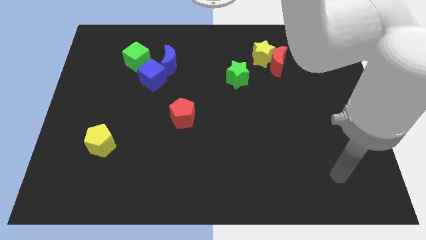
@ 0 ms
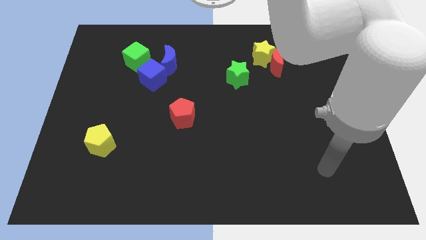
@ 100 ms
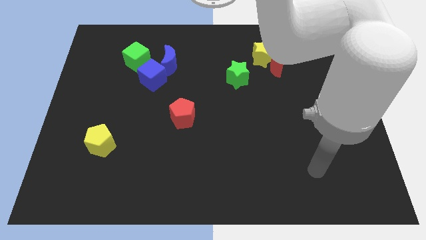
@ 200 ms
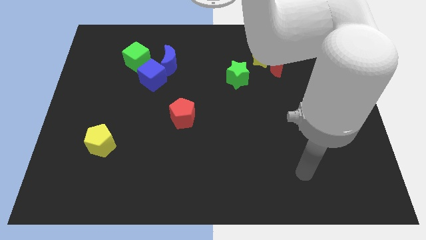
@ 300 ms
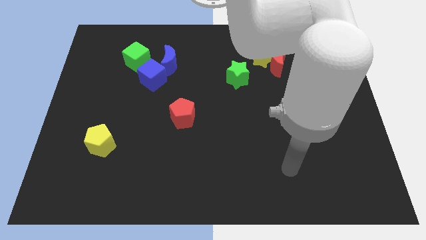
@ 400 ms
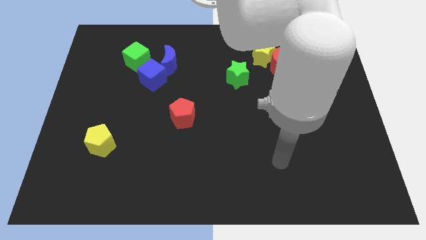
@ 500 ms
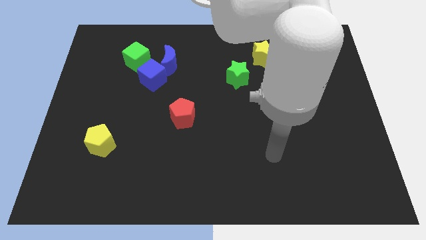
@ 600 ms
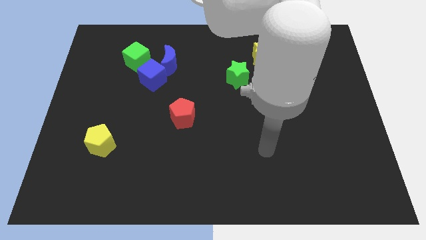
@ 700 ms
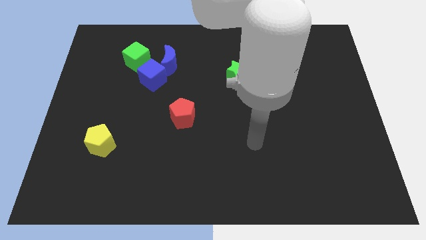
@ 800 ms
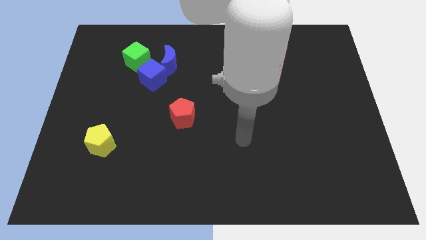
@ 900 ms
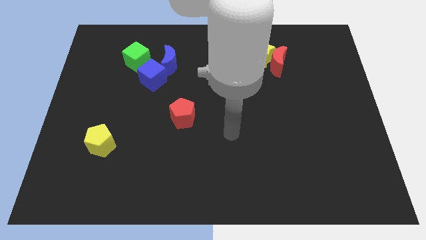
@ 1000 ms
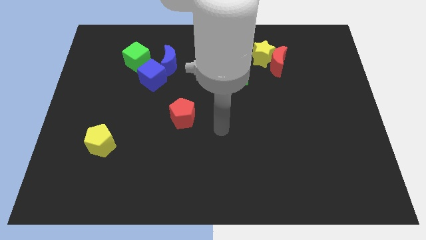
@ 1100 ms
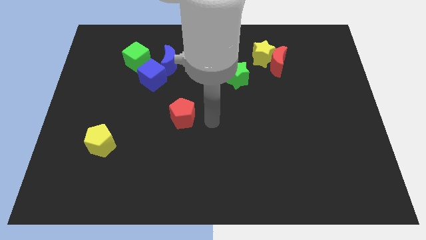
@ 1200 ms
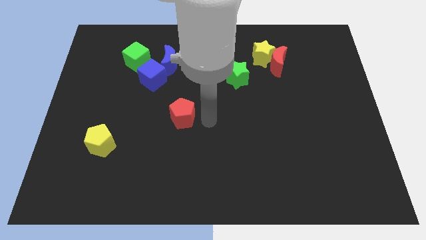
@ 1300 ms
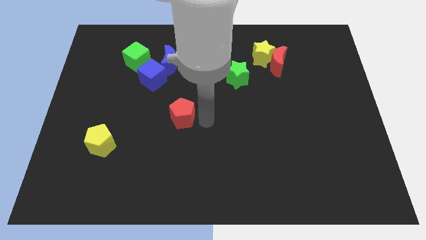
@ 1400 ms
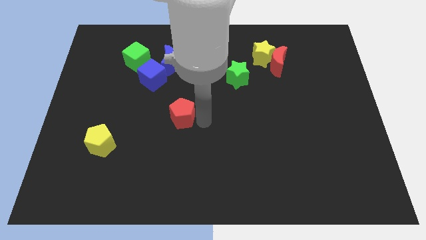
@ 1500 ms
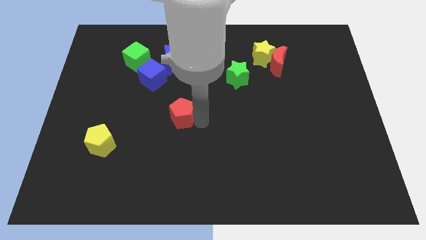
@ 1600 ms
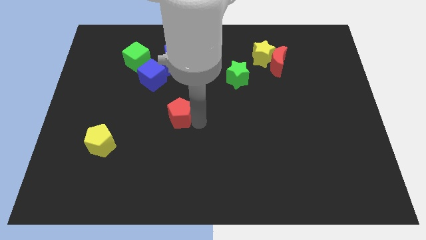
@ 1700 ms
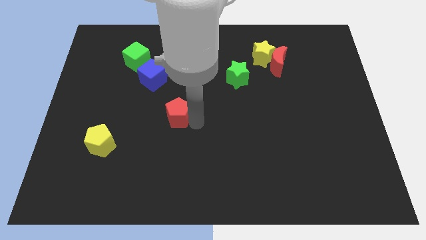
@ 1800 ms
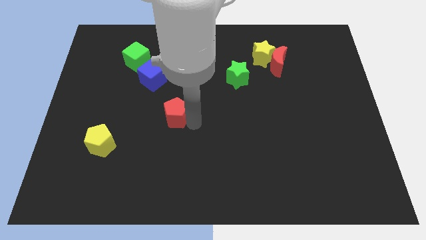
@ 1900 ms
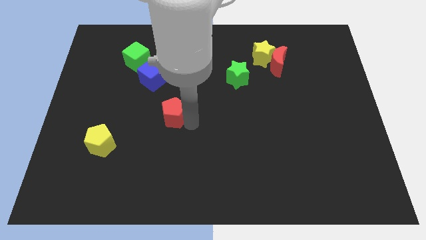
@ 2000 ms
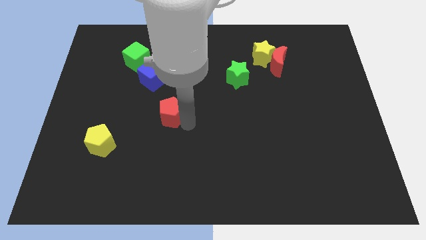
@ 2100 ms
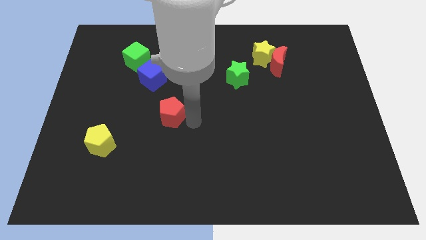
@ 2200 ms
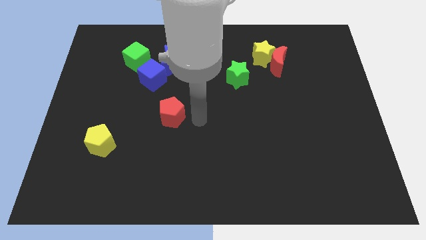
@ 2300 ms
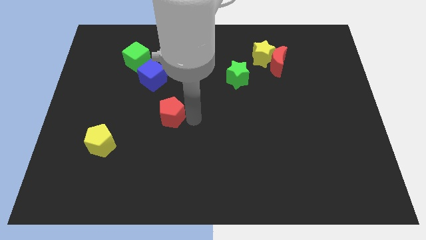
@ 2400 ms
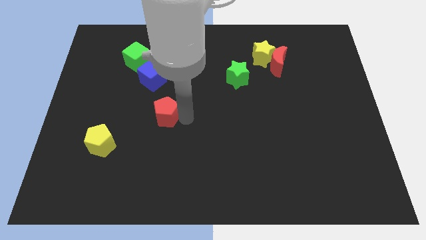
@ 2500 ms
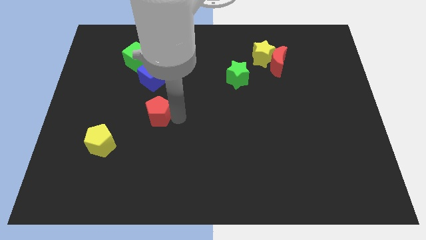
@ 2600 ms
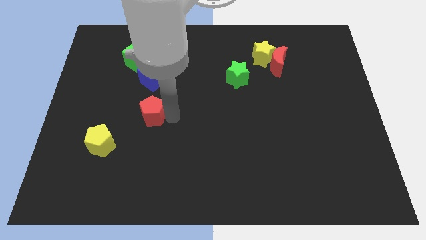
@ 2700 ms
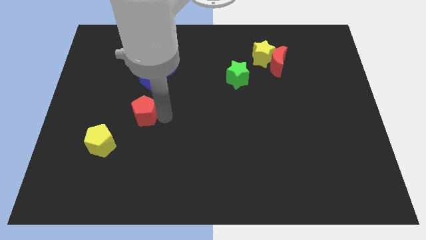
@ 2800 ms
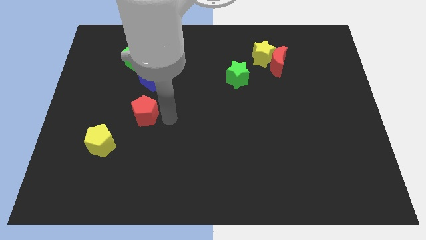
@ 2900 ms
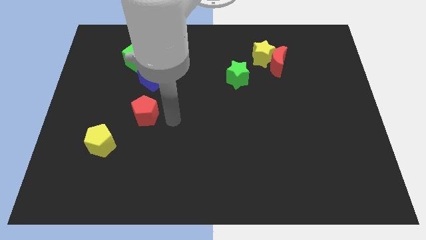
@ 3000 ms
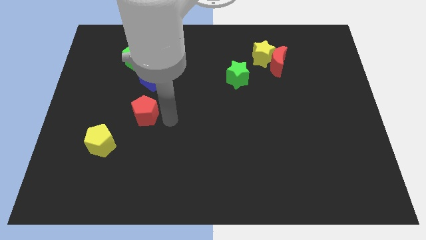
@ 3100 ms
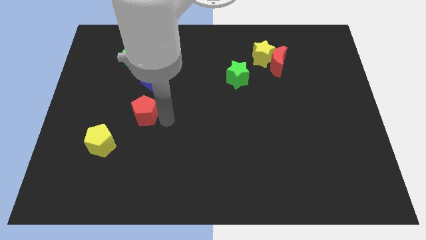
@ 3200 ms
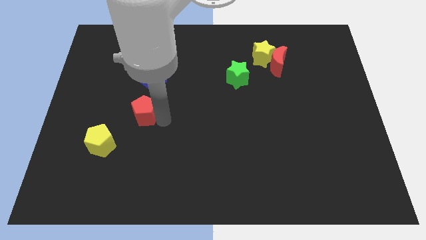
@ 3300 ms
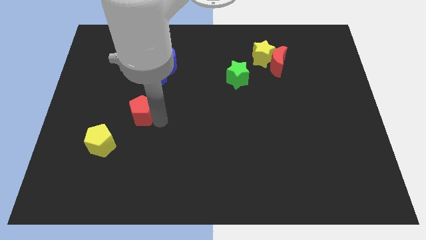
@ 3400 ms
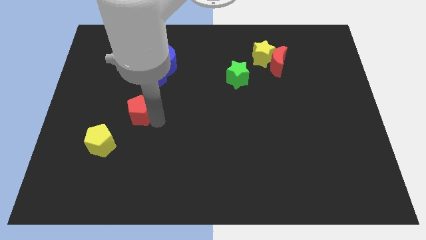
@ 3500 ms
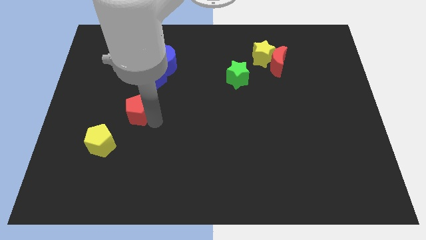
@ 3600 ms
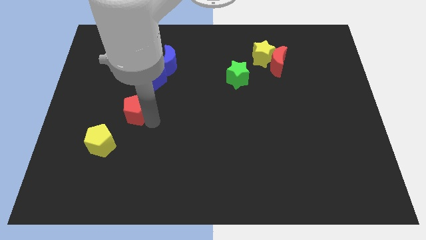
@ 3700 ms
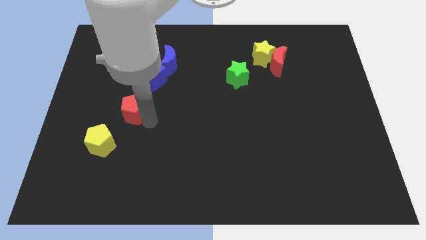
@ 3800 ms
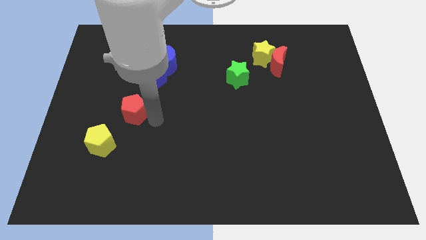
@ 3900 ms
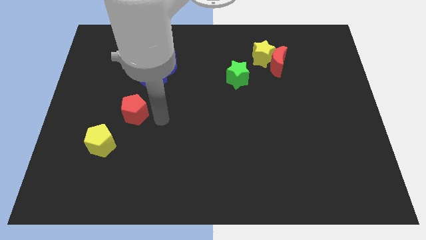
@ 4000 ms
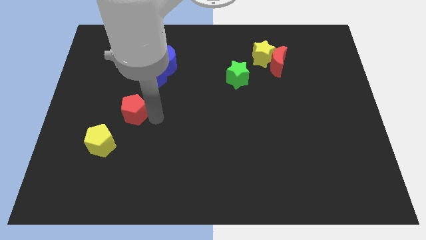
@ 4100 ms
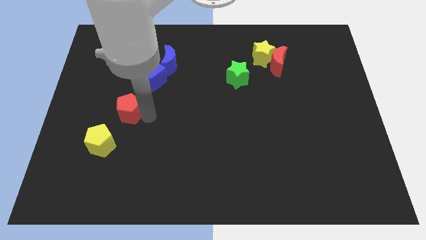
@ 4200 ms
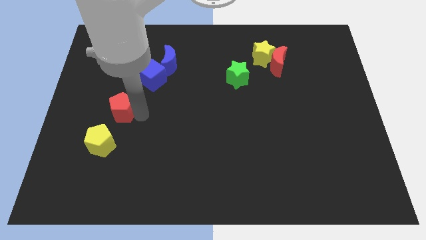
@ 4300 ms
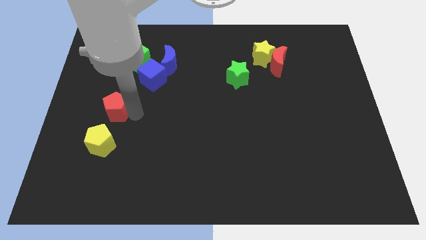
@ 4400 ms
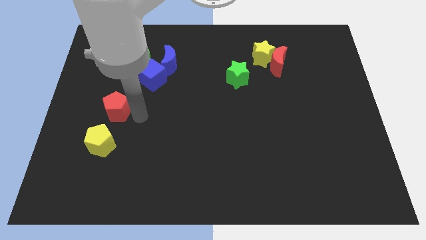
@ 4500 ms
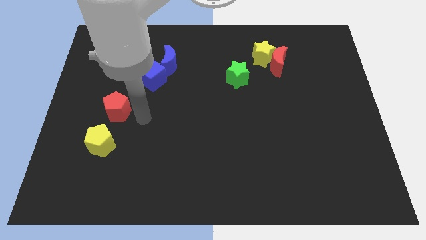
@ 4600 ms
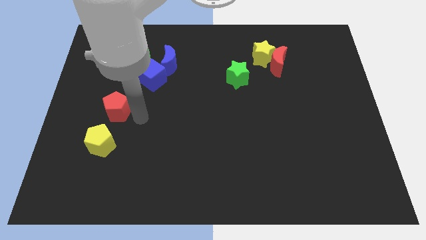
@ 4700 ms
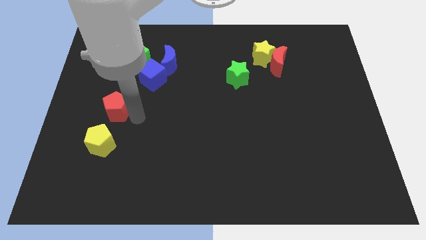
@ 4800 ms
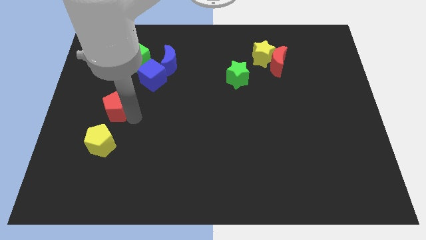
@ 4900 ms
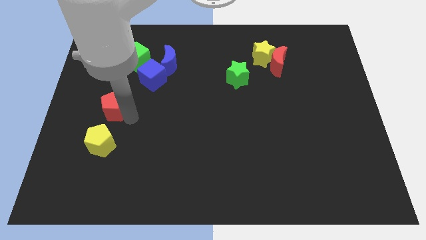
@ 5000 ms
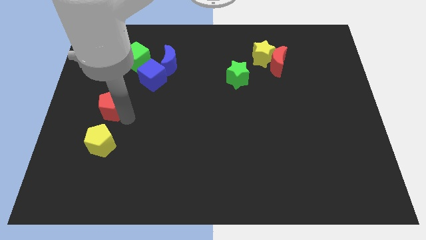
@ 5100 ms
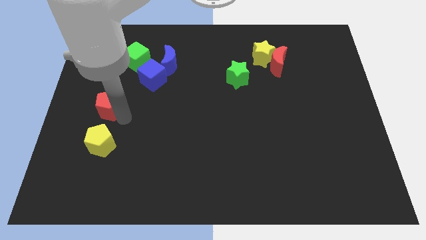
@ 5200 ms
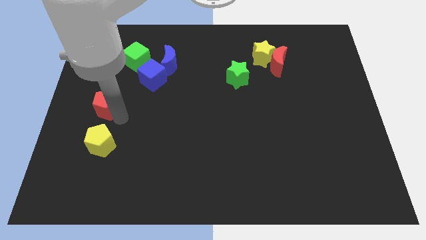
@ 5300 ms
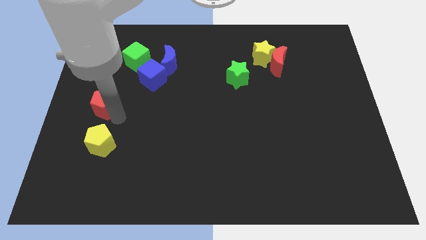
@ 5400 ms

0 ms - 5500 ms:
push the red pentagon to the center left
